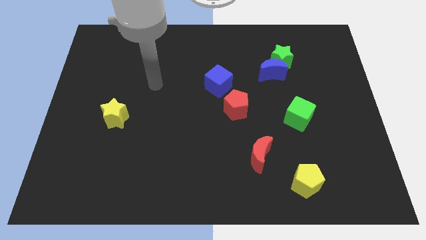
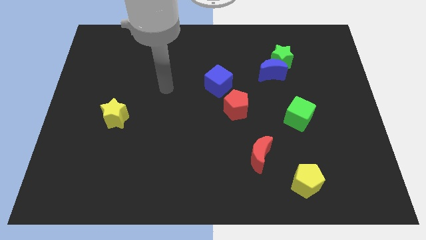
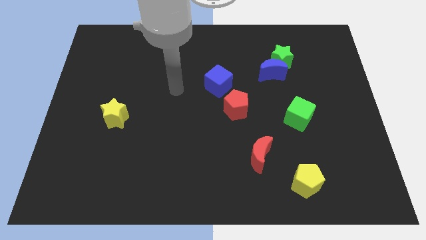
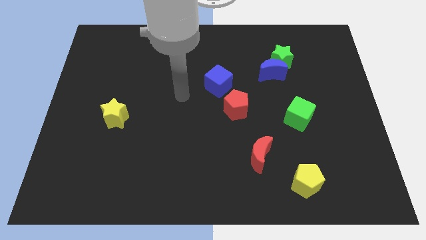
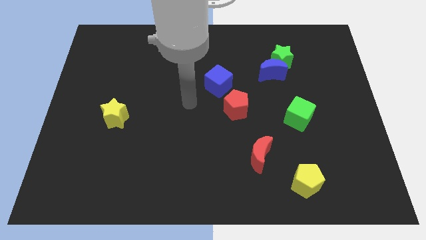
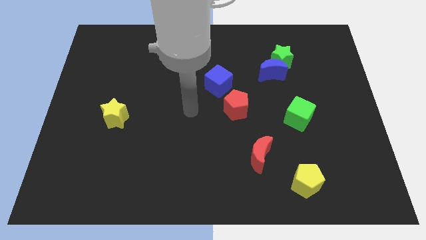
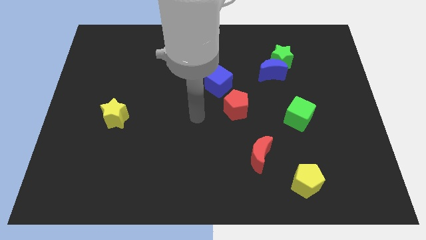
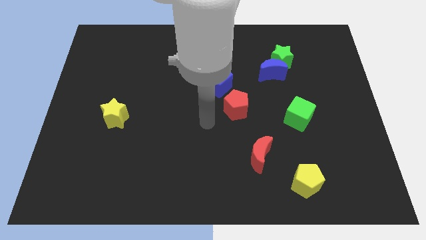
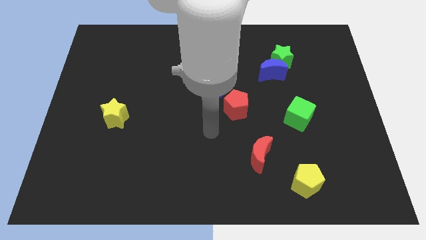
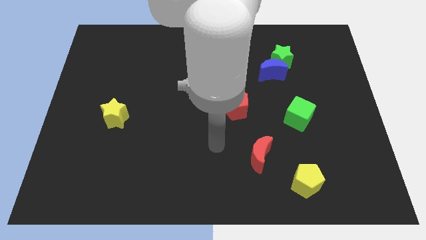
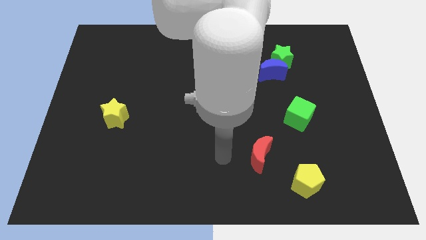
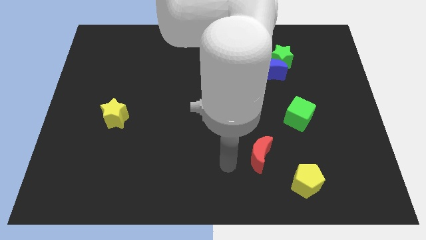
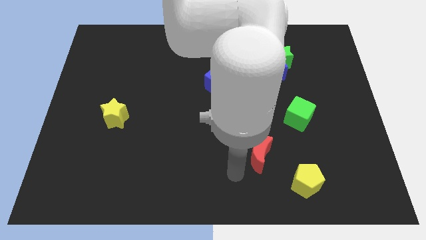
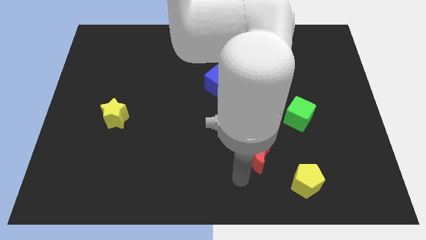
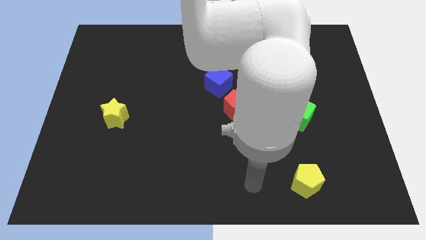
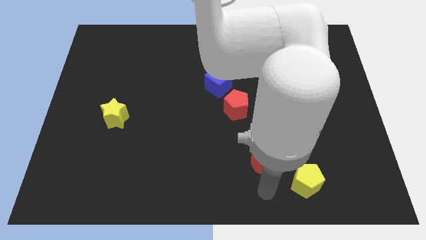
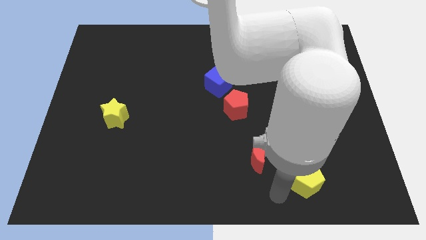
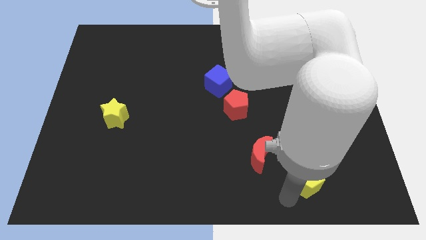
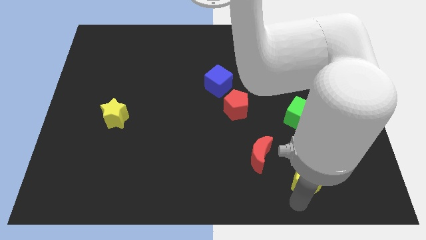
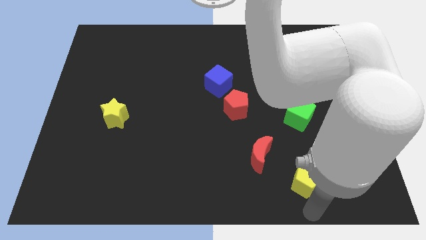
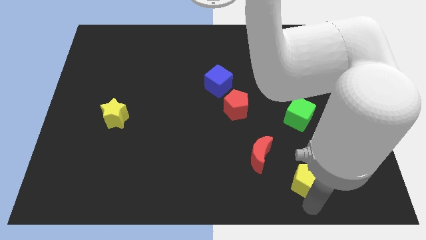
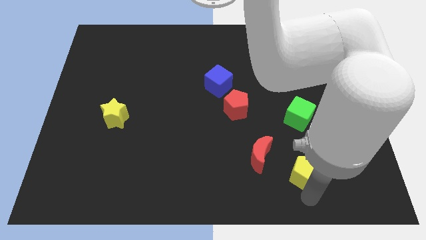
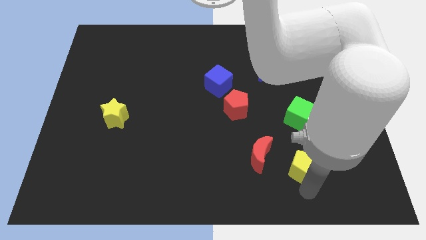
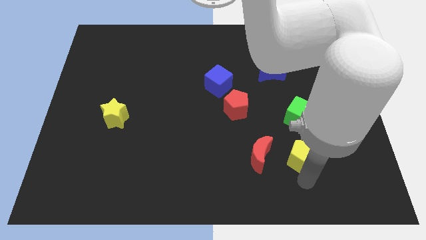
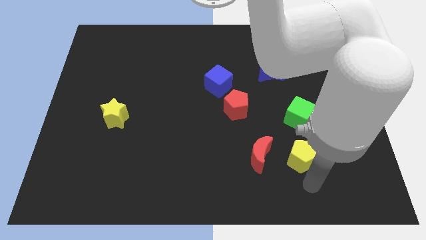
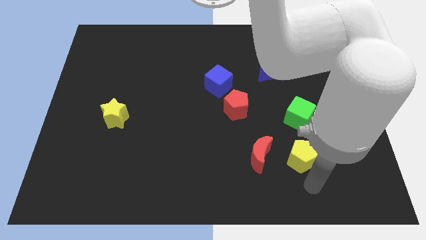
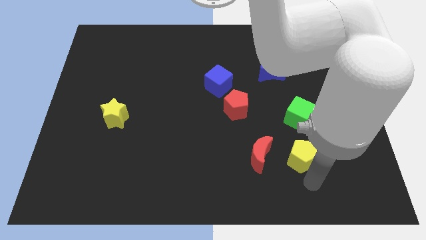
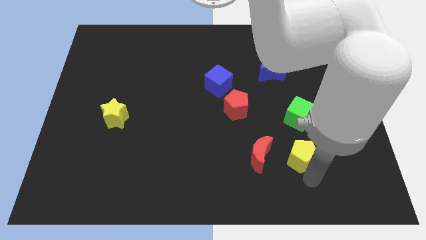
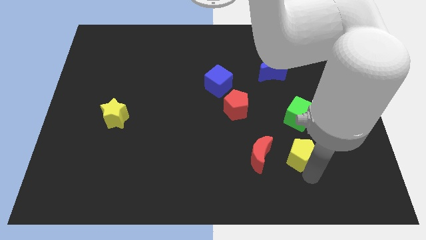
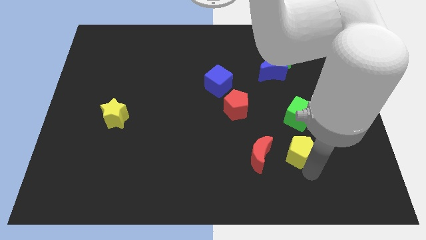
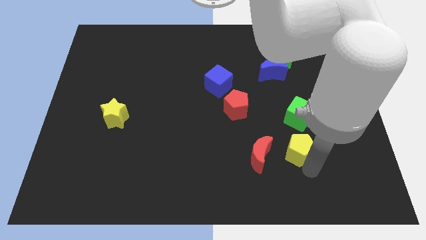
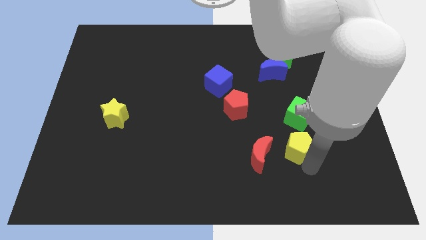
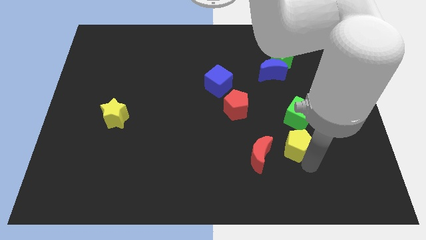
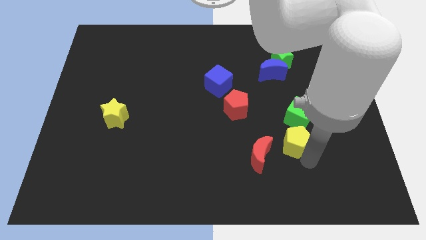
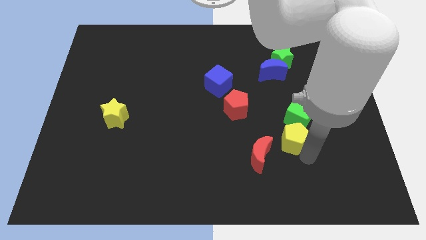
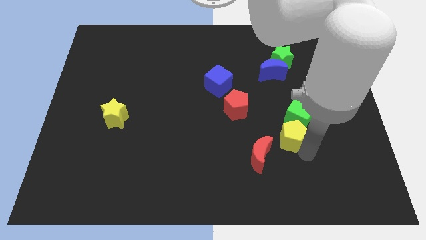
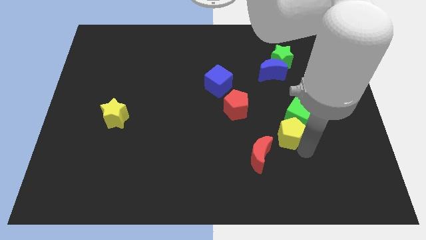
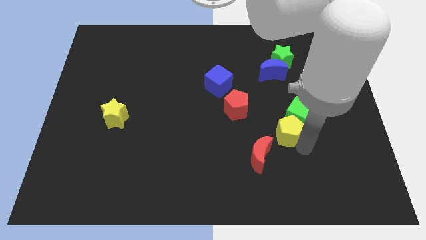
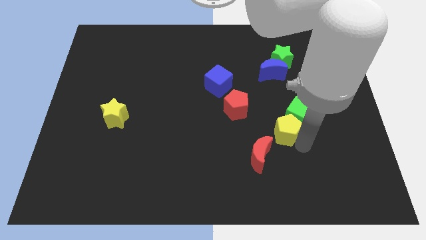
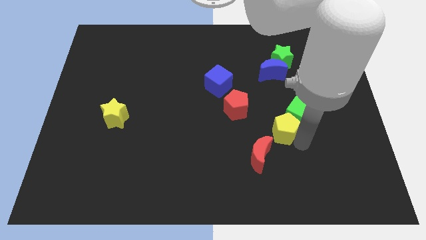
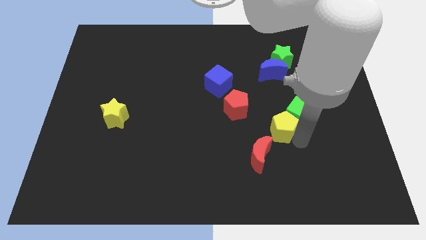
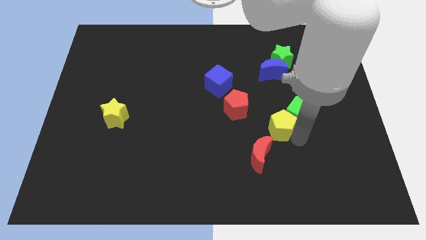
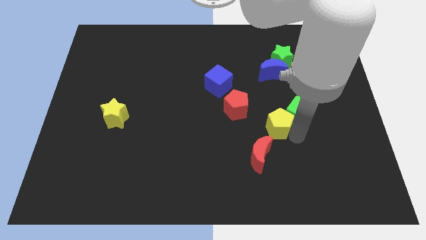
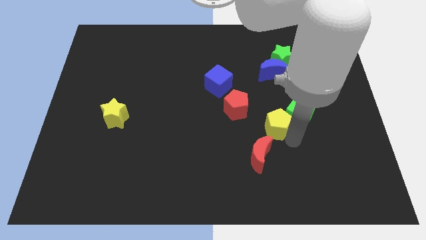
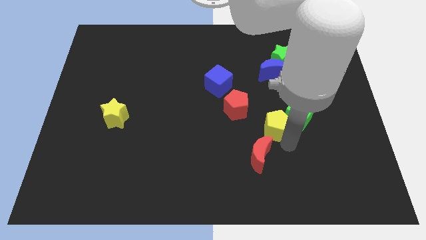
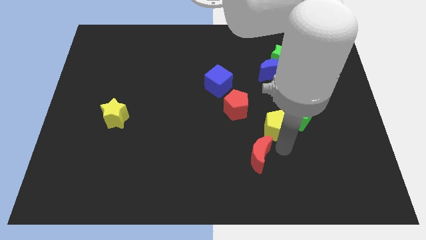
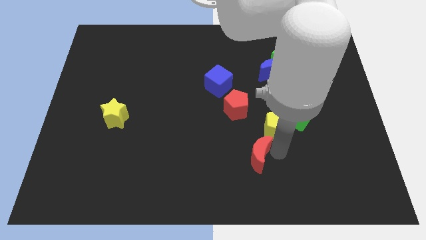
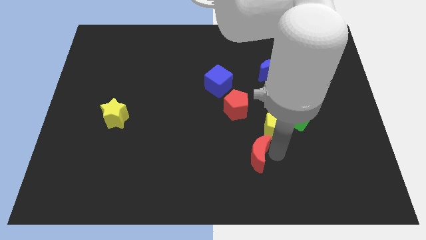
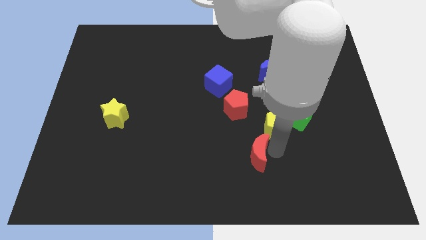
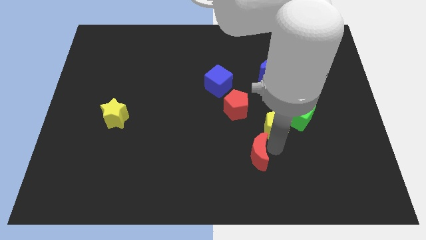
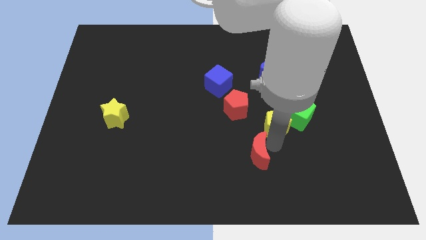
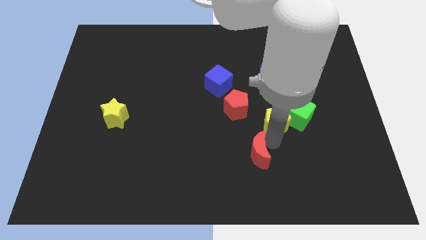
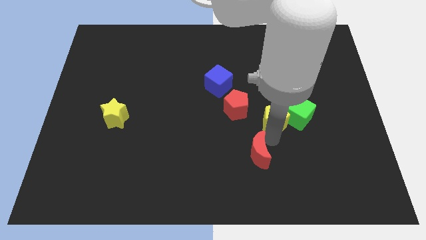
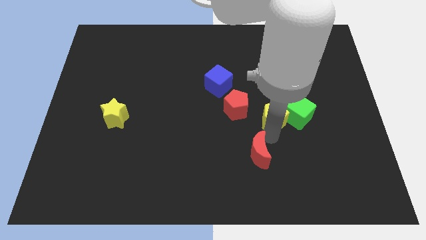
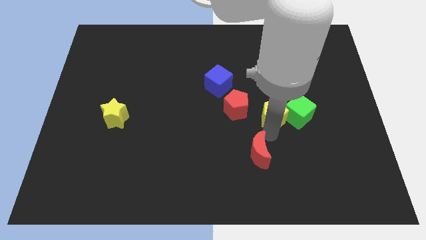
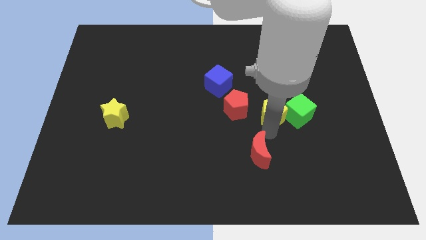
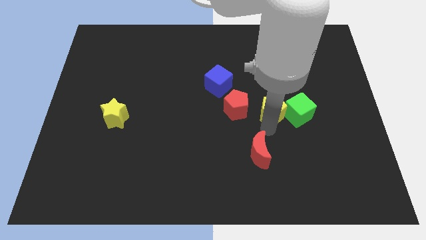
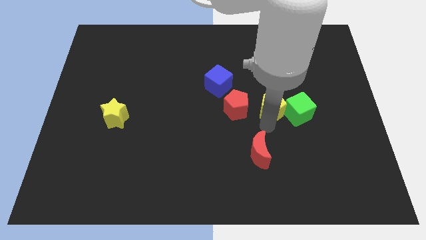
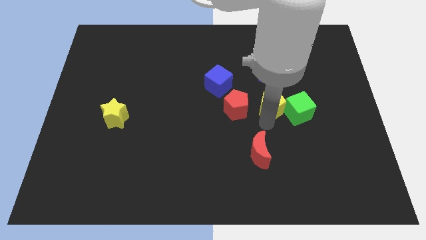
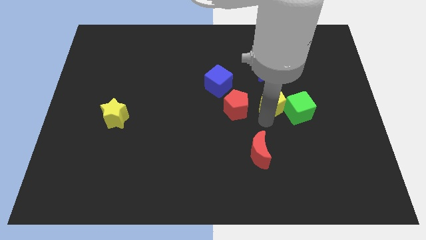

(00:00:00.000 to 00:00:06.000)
put the yellow pentagon to the bottom side of the green star
